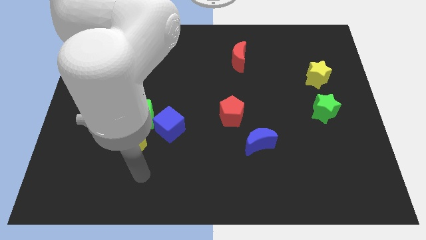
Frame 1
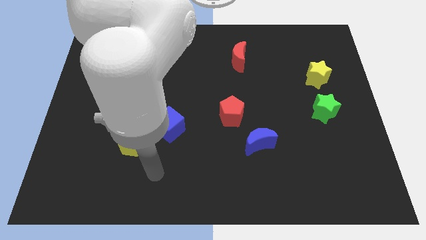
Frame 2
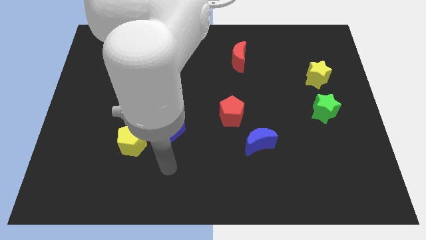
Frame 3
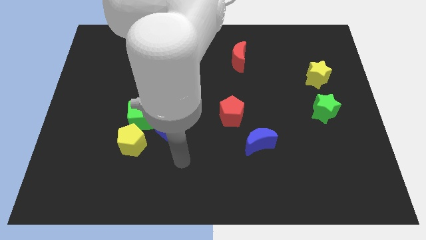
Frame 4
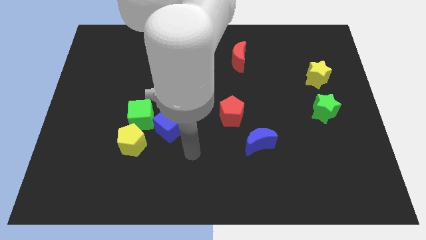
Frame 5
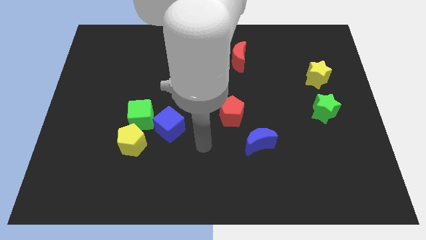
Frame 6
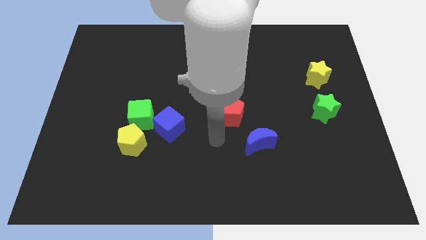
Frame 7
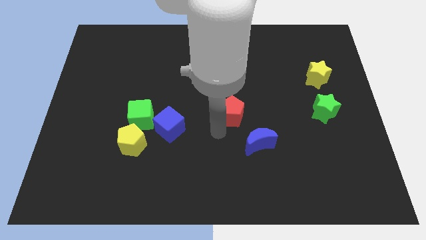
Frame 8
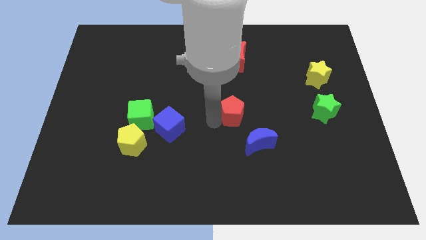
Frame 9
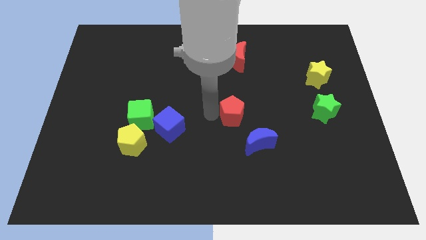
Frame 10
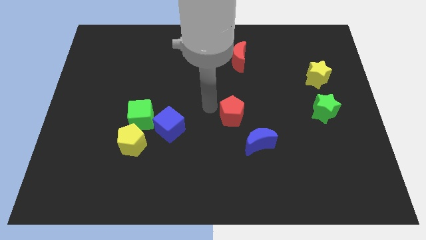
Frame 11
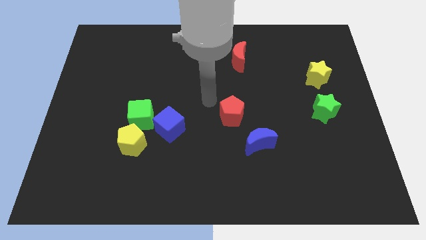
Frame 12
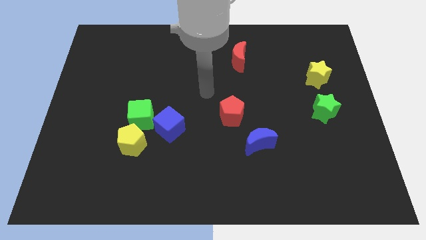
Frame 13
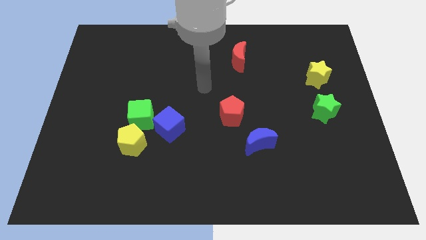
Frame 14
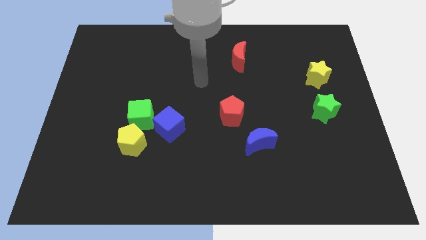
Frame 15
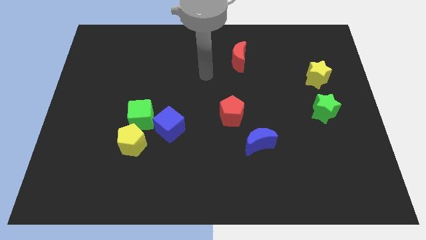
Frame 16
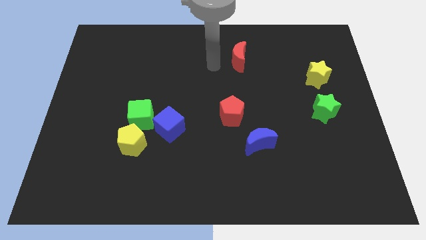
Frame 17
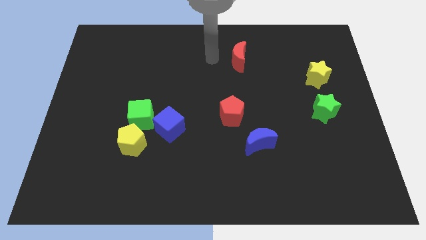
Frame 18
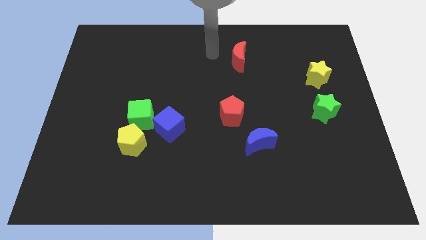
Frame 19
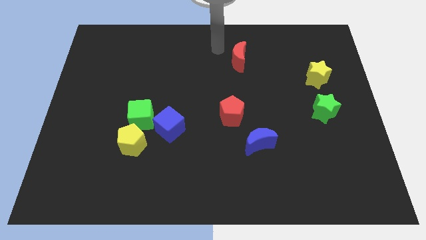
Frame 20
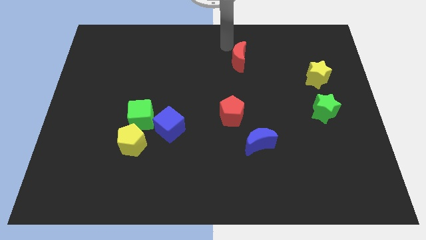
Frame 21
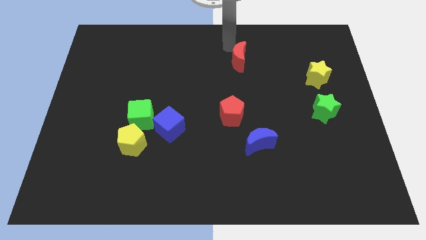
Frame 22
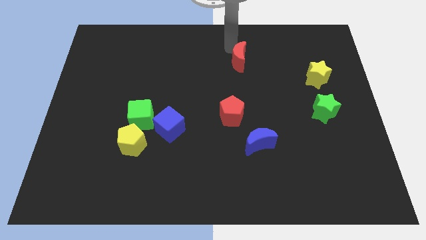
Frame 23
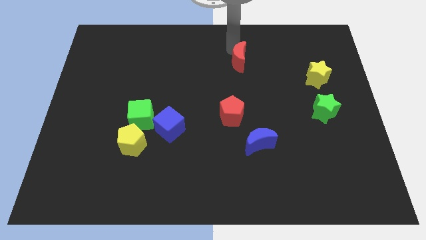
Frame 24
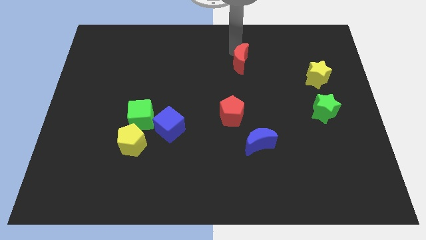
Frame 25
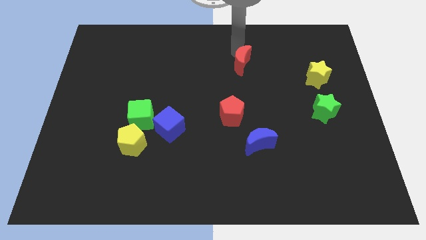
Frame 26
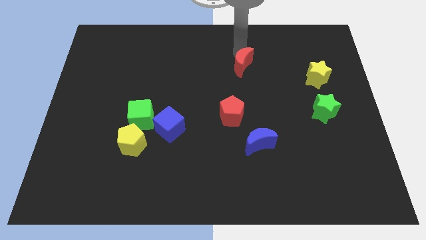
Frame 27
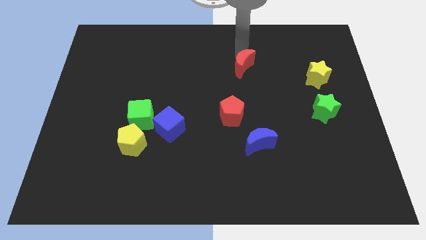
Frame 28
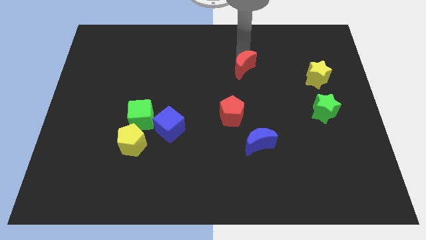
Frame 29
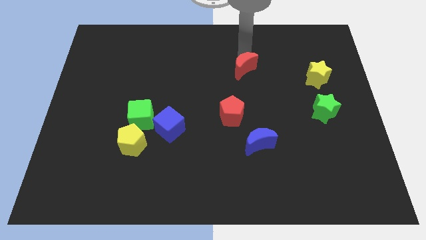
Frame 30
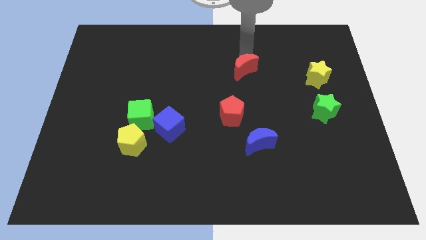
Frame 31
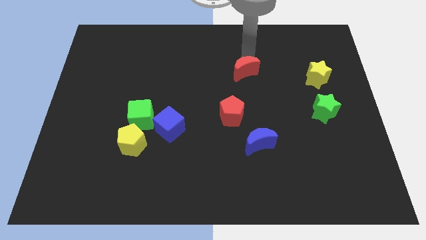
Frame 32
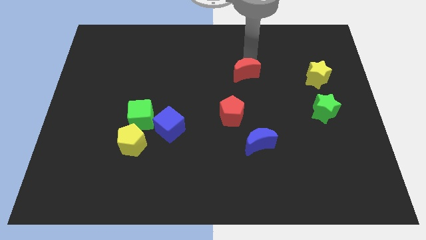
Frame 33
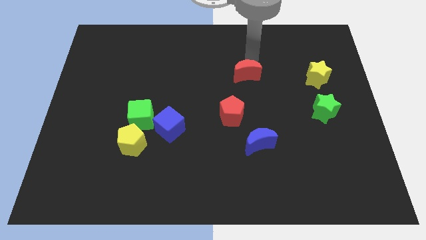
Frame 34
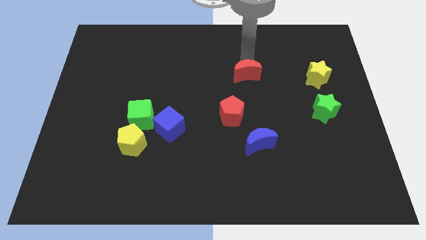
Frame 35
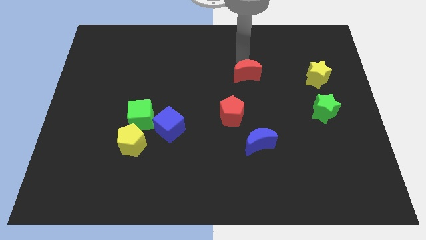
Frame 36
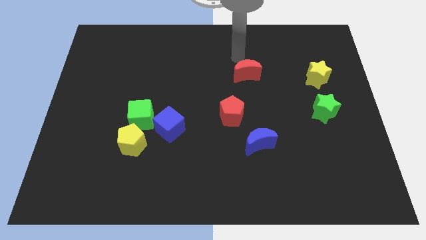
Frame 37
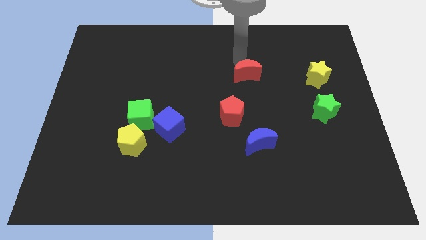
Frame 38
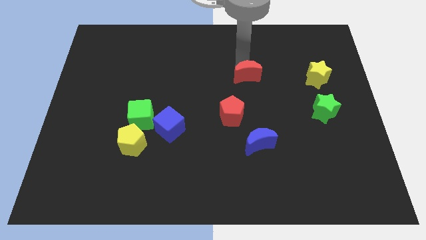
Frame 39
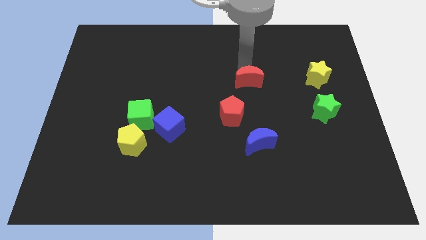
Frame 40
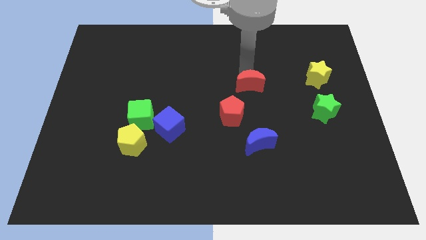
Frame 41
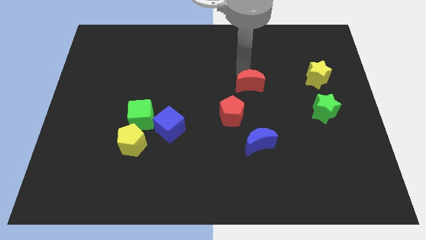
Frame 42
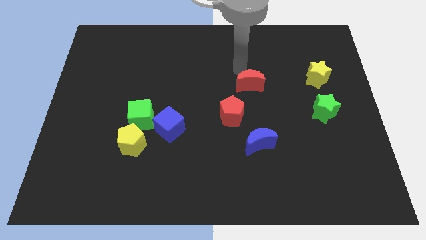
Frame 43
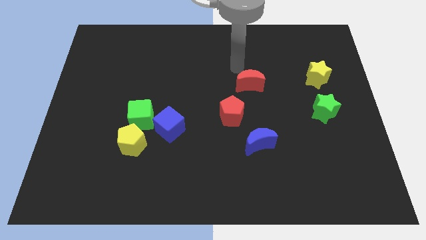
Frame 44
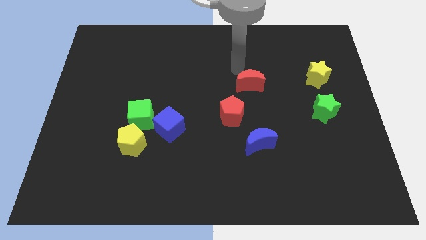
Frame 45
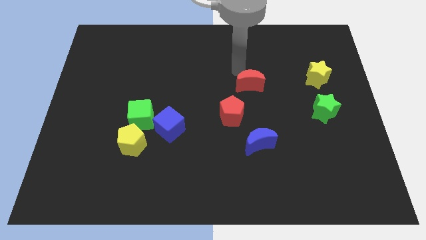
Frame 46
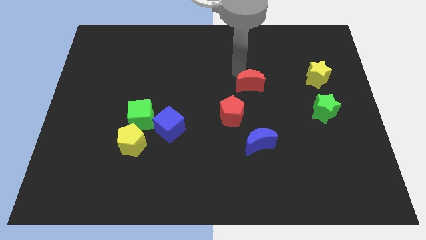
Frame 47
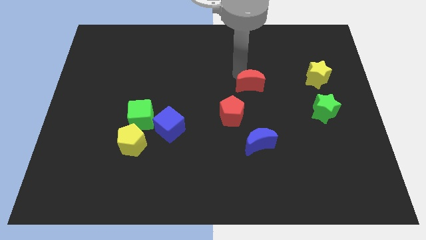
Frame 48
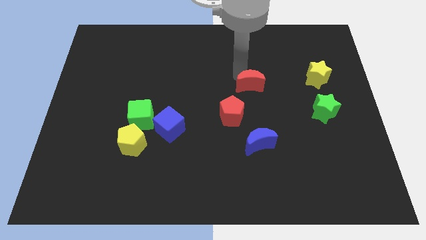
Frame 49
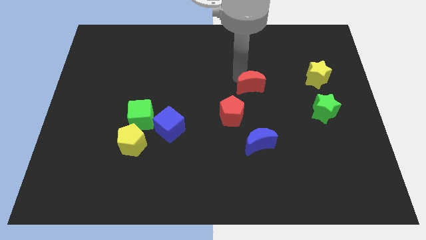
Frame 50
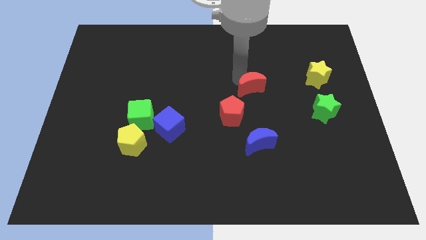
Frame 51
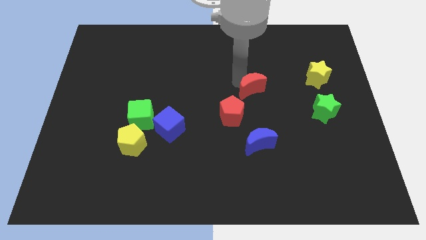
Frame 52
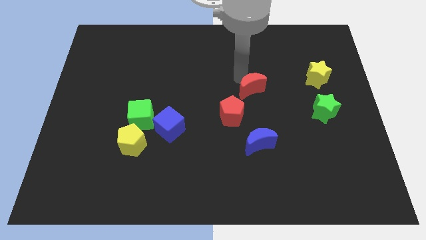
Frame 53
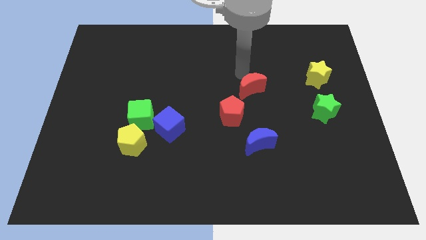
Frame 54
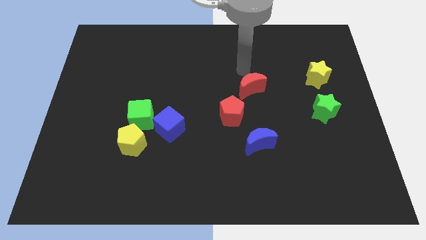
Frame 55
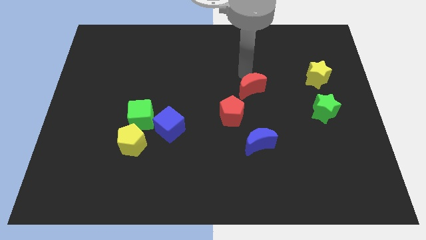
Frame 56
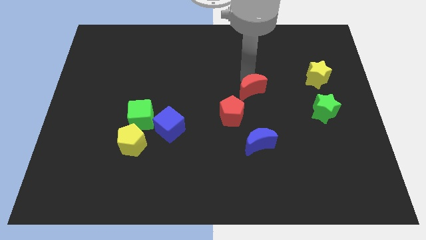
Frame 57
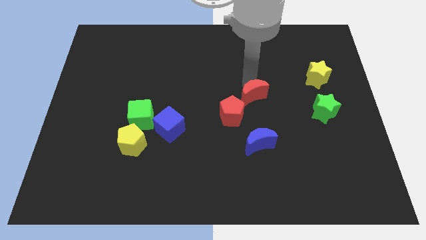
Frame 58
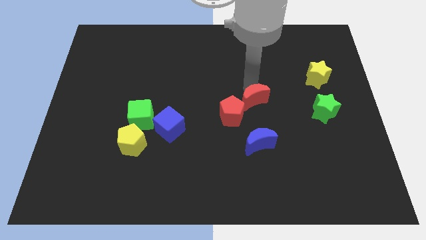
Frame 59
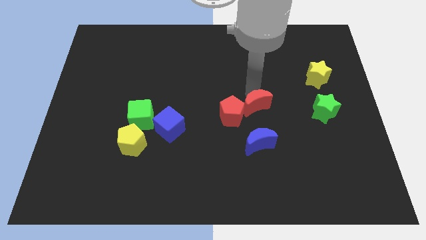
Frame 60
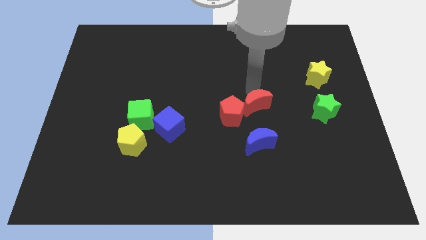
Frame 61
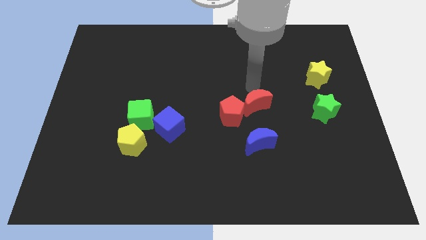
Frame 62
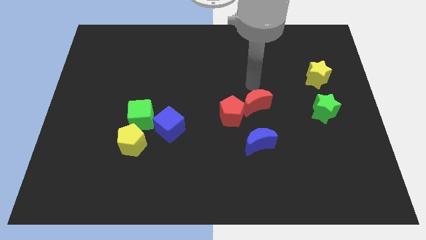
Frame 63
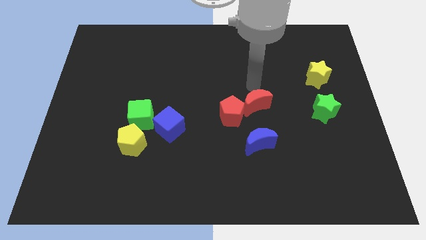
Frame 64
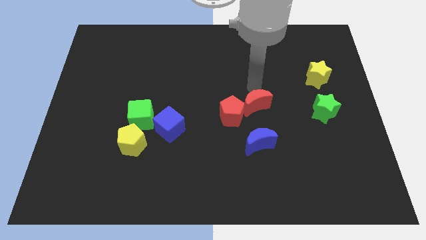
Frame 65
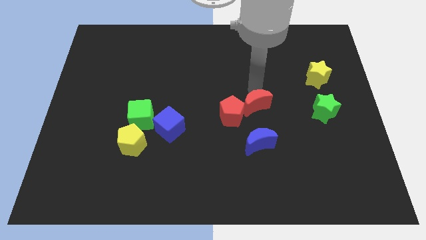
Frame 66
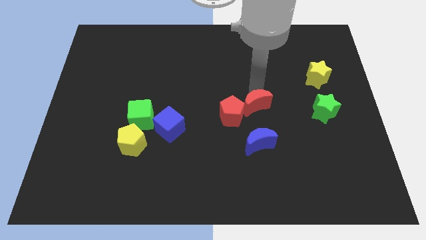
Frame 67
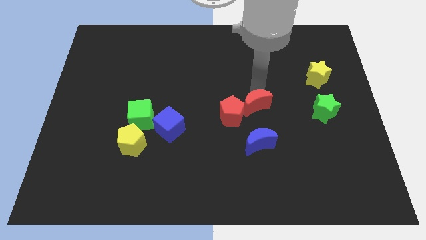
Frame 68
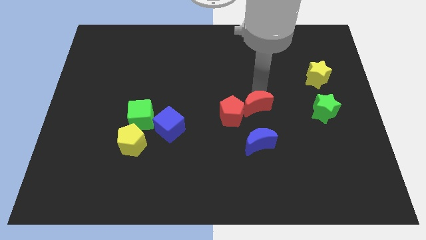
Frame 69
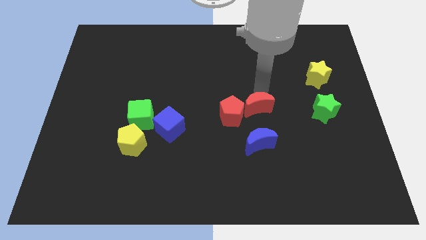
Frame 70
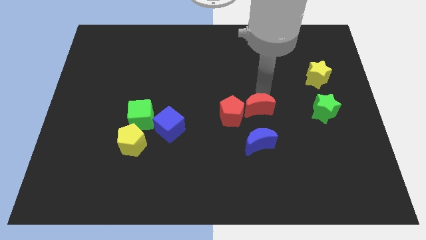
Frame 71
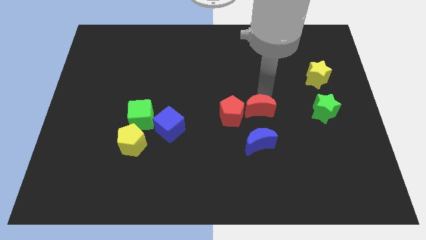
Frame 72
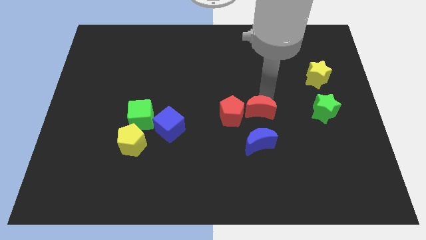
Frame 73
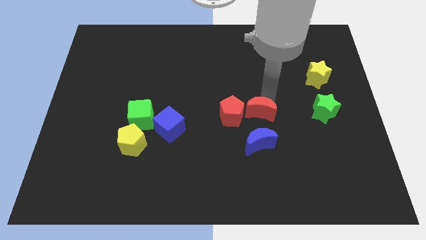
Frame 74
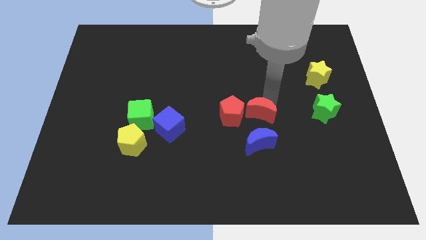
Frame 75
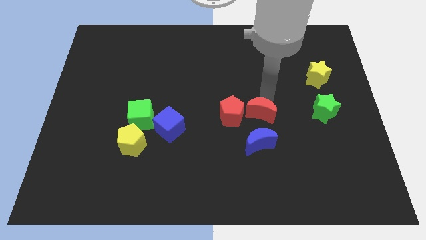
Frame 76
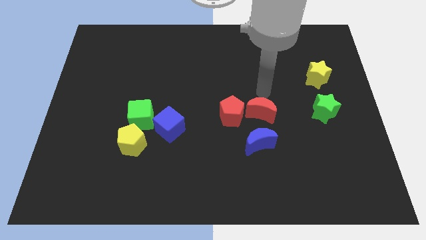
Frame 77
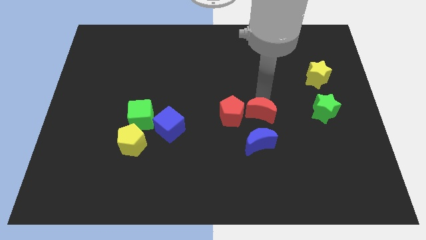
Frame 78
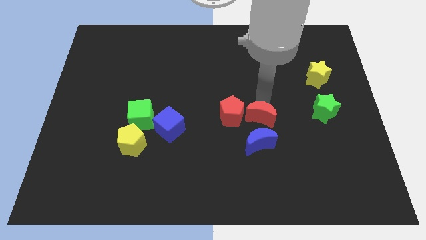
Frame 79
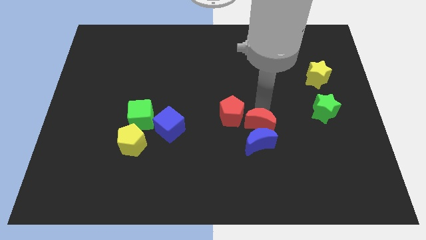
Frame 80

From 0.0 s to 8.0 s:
put the red moon to the blue moon
